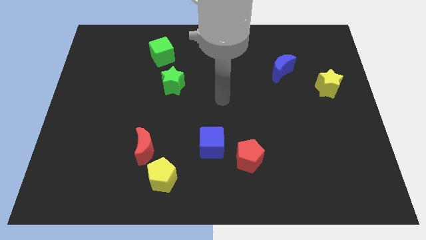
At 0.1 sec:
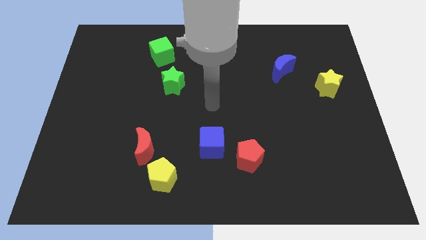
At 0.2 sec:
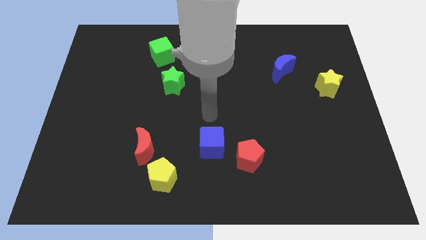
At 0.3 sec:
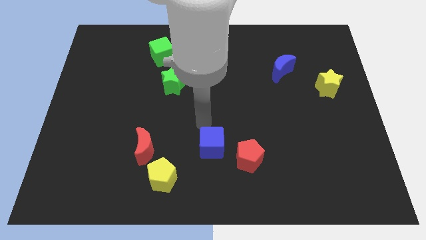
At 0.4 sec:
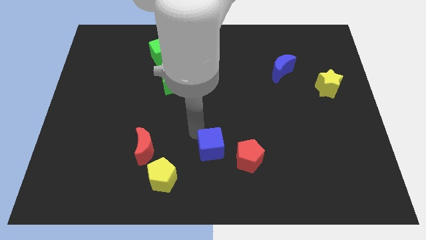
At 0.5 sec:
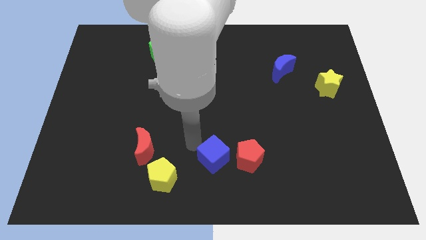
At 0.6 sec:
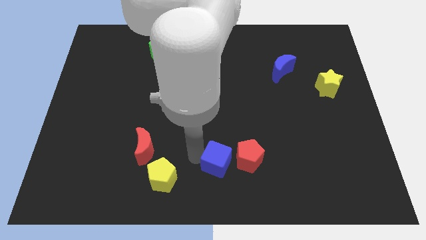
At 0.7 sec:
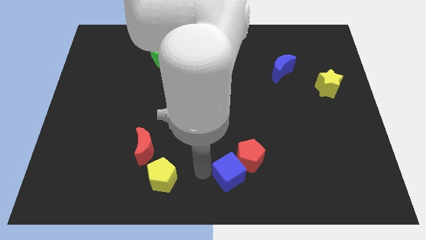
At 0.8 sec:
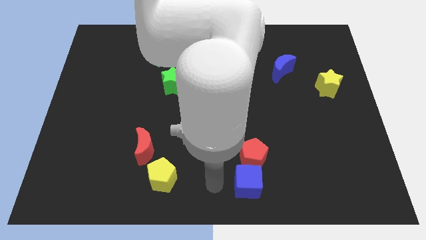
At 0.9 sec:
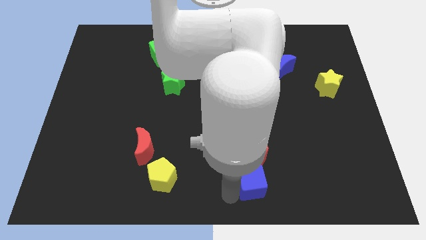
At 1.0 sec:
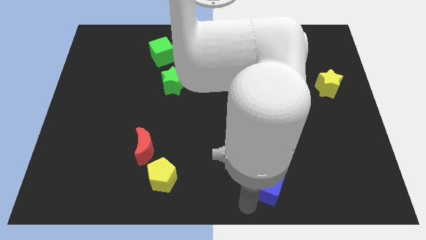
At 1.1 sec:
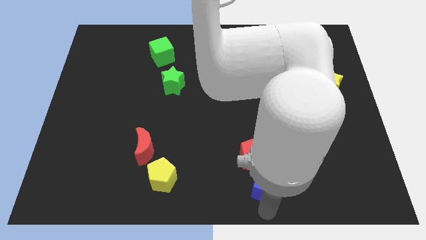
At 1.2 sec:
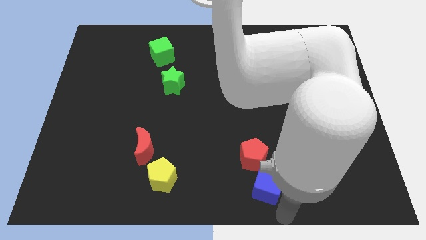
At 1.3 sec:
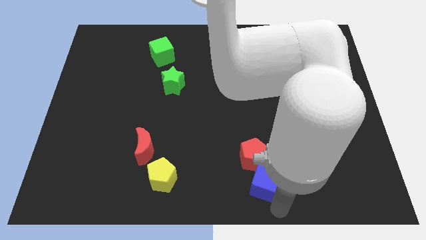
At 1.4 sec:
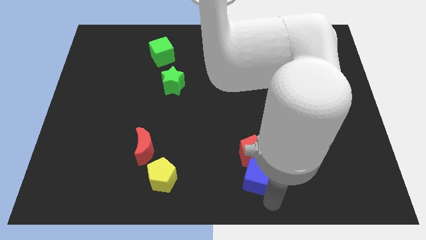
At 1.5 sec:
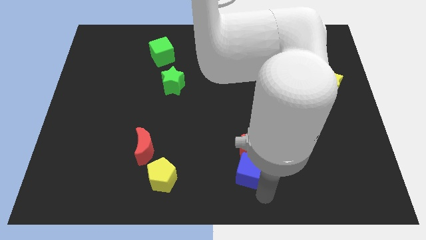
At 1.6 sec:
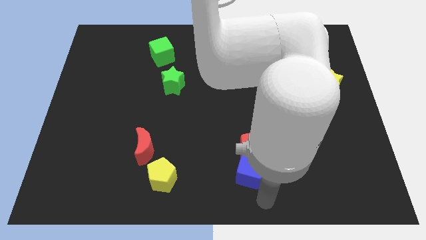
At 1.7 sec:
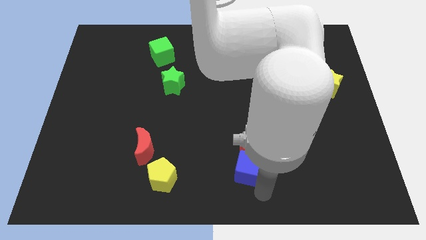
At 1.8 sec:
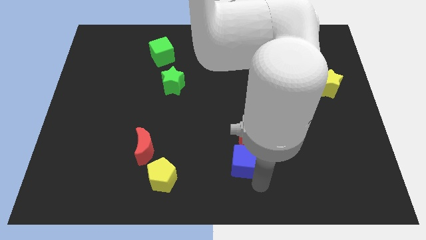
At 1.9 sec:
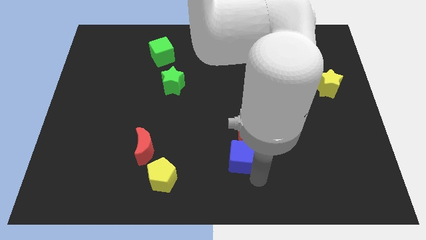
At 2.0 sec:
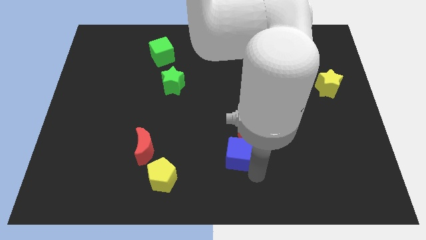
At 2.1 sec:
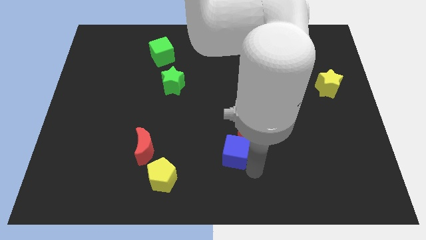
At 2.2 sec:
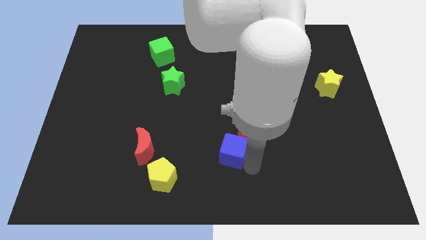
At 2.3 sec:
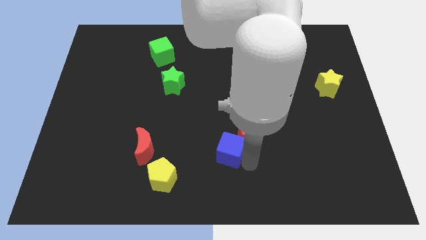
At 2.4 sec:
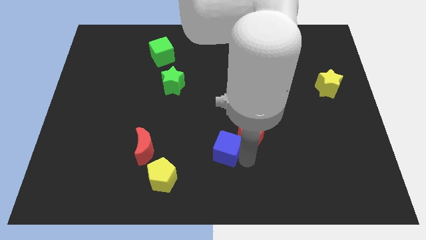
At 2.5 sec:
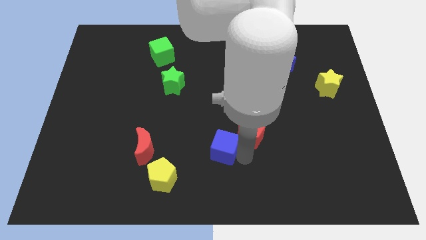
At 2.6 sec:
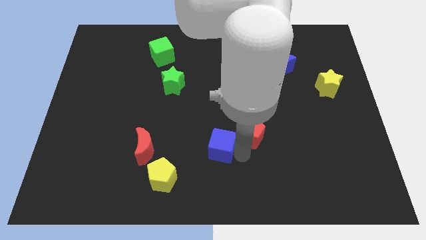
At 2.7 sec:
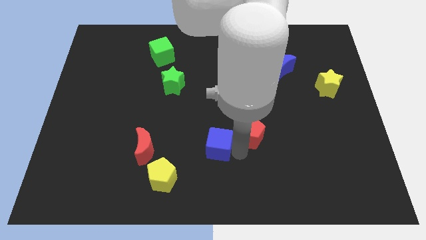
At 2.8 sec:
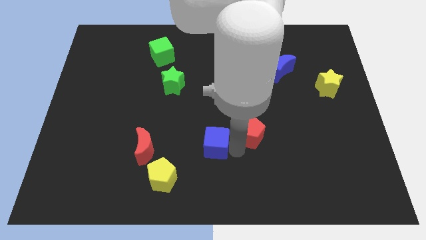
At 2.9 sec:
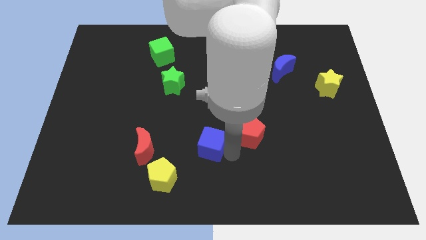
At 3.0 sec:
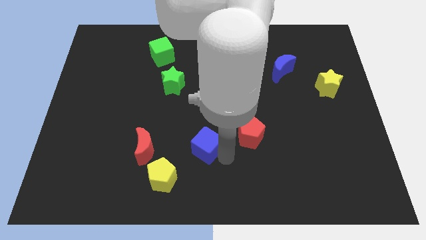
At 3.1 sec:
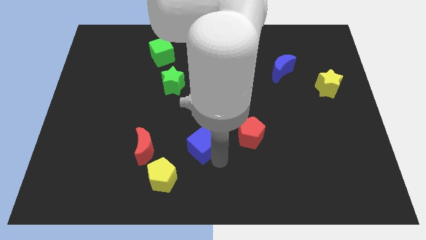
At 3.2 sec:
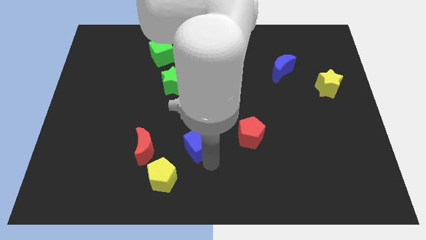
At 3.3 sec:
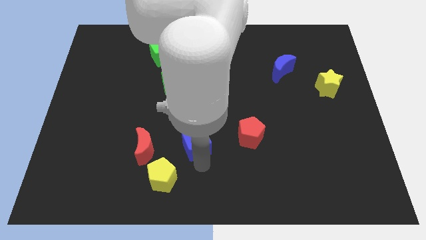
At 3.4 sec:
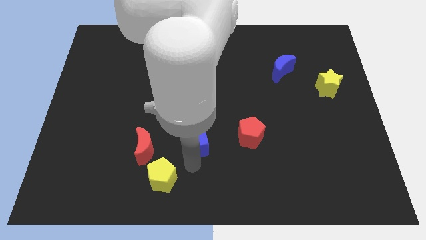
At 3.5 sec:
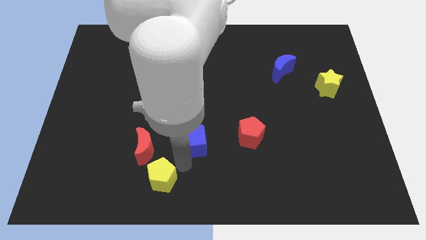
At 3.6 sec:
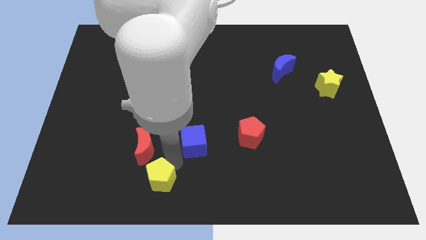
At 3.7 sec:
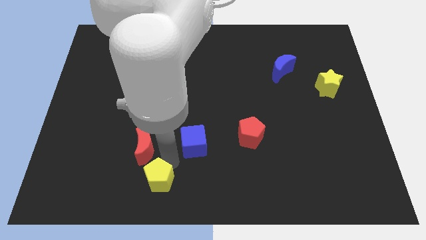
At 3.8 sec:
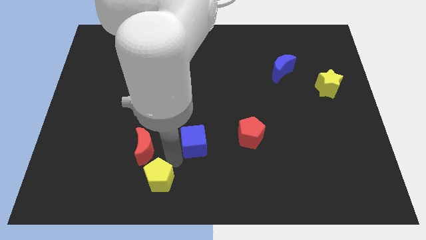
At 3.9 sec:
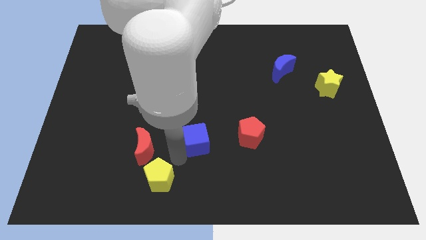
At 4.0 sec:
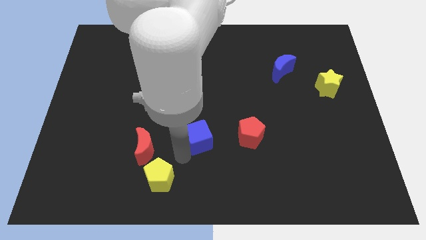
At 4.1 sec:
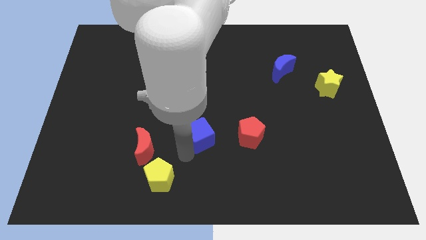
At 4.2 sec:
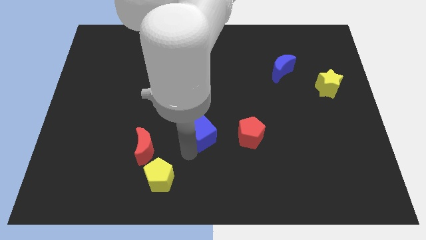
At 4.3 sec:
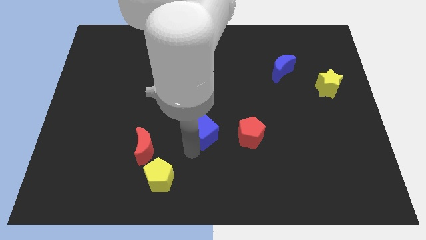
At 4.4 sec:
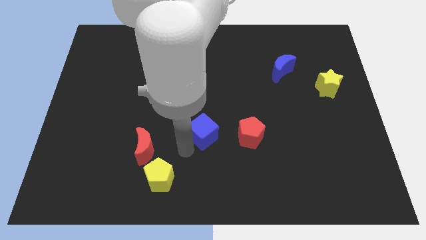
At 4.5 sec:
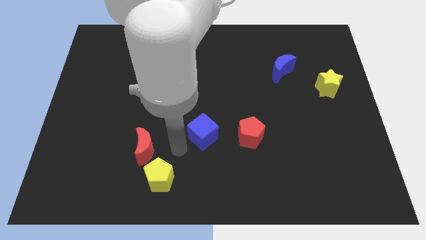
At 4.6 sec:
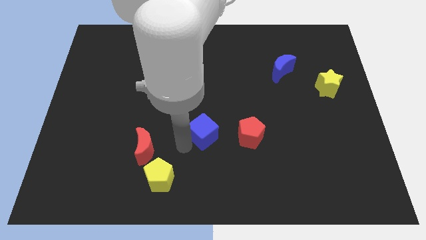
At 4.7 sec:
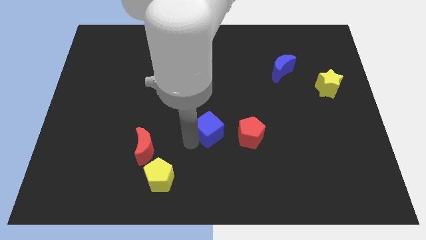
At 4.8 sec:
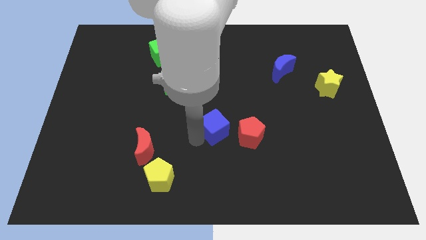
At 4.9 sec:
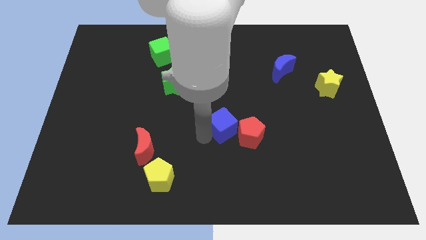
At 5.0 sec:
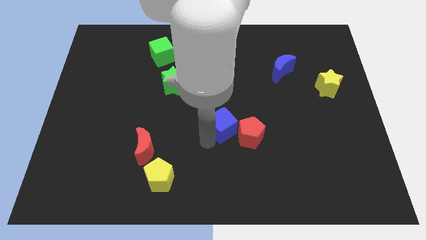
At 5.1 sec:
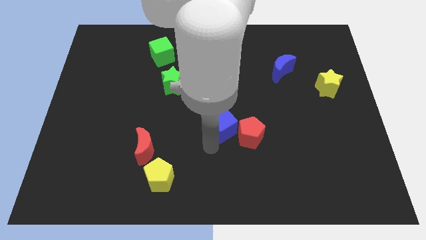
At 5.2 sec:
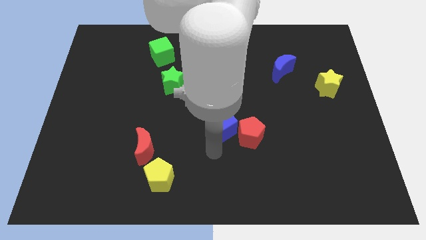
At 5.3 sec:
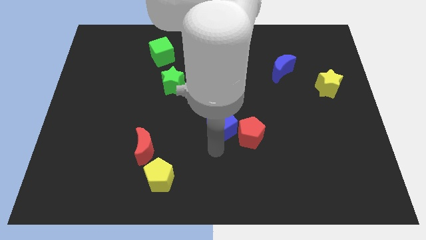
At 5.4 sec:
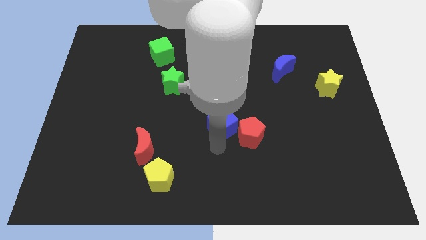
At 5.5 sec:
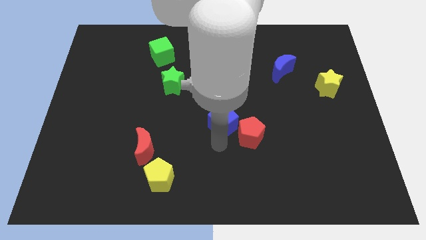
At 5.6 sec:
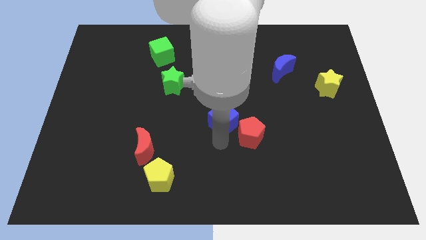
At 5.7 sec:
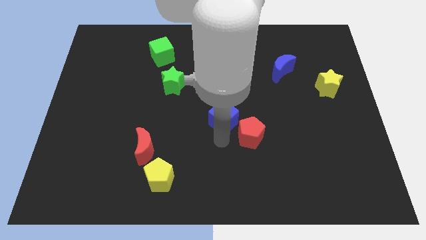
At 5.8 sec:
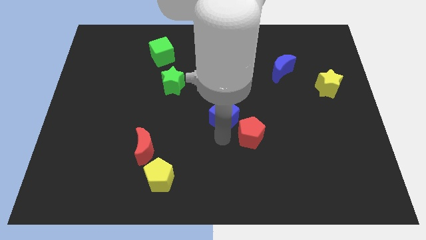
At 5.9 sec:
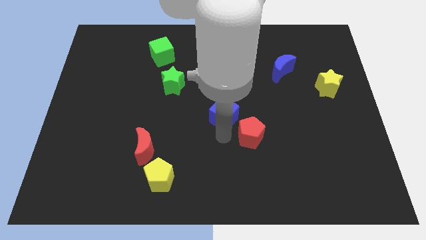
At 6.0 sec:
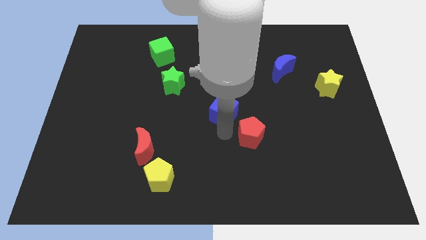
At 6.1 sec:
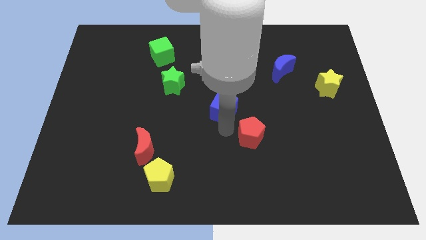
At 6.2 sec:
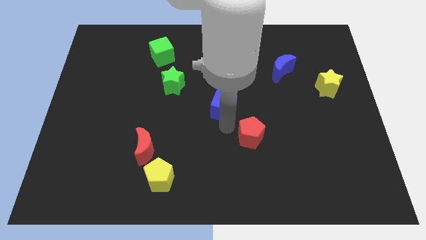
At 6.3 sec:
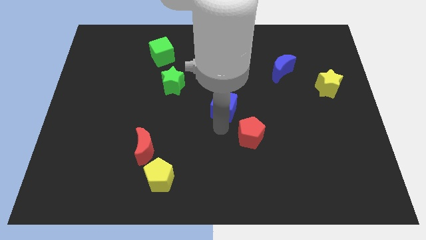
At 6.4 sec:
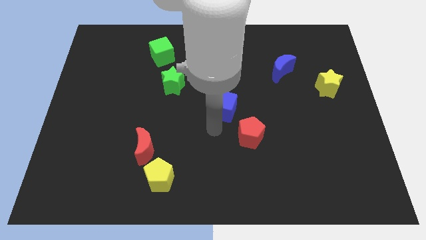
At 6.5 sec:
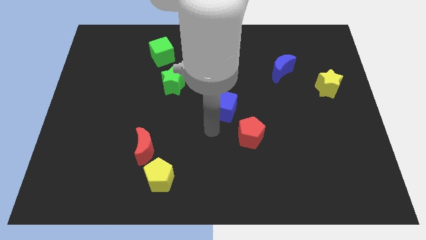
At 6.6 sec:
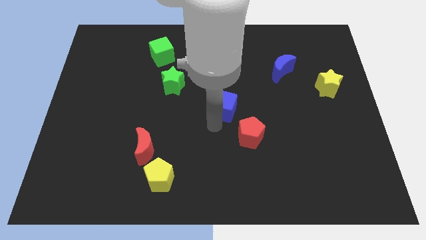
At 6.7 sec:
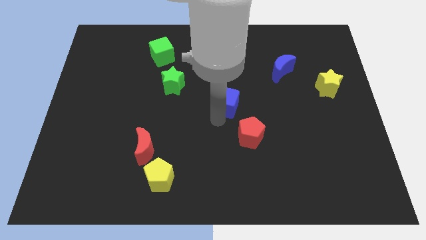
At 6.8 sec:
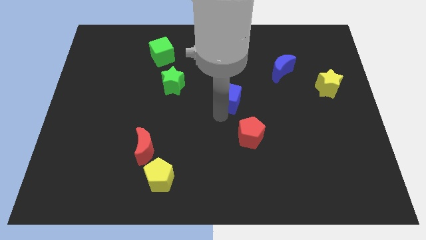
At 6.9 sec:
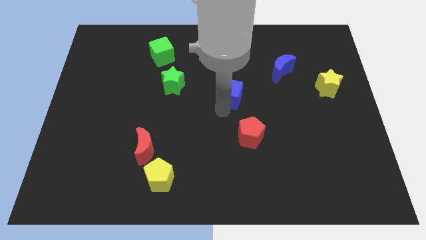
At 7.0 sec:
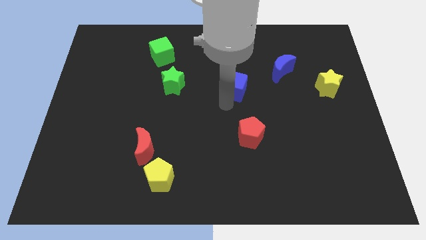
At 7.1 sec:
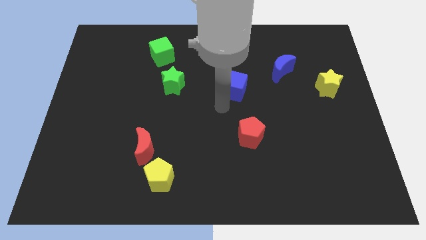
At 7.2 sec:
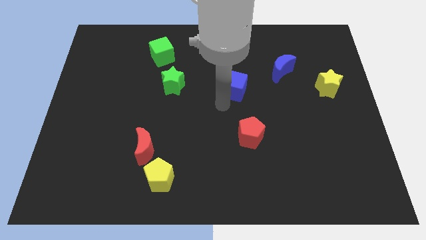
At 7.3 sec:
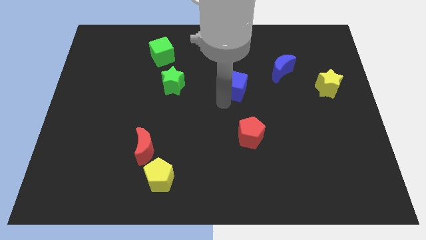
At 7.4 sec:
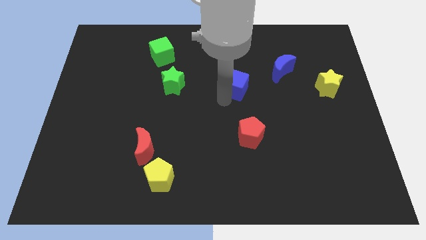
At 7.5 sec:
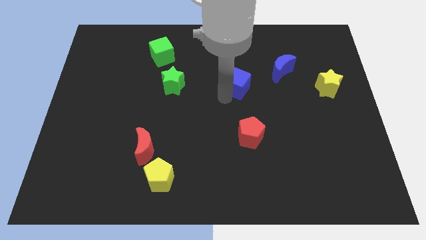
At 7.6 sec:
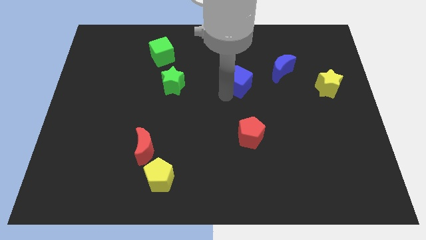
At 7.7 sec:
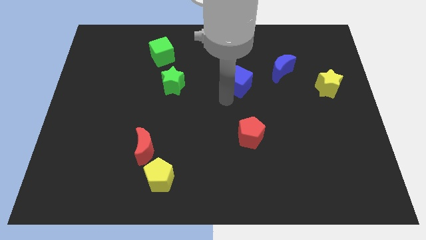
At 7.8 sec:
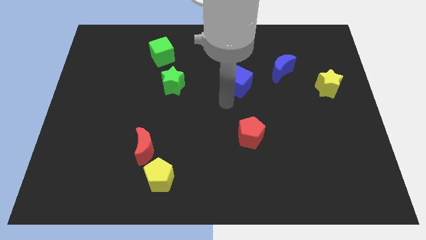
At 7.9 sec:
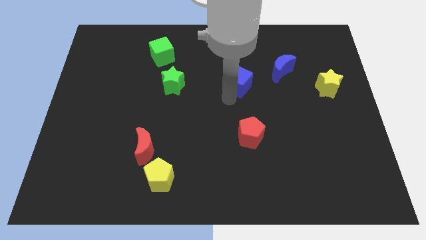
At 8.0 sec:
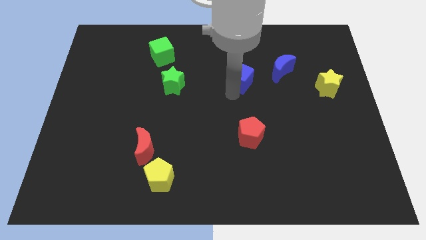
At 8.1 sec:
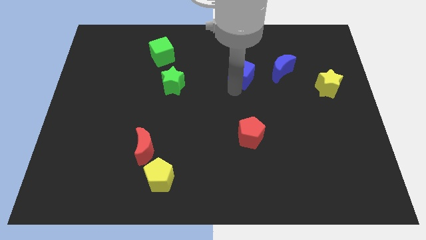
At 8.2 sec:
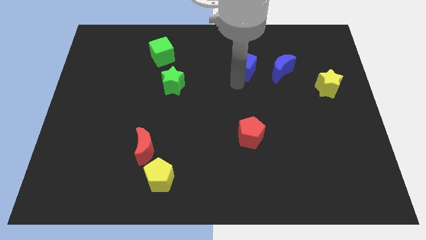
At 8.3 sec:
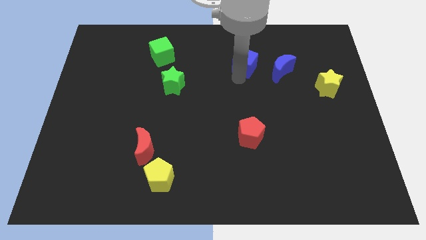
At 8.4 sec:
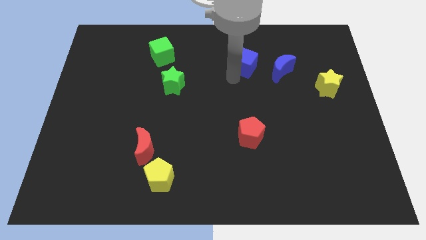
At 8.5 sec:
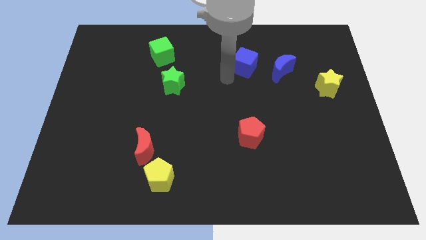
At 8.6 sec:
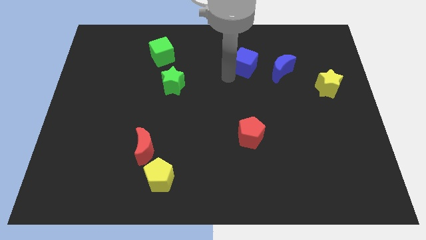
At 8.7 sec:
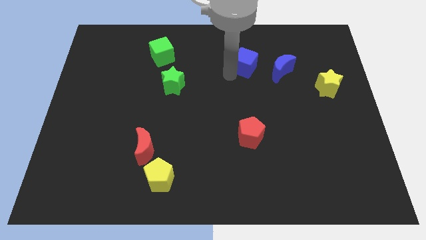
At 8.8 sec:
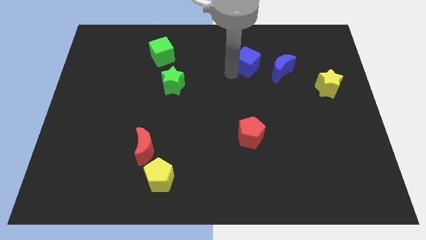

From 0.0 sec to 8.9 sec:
push the blue cube to the top left side of the blue moon
